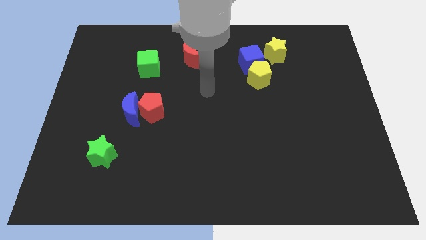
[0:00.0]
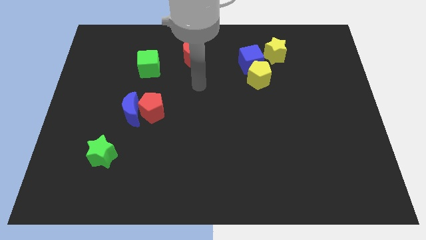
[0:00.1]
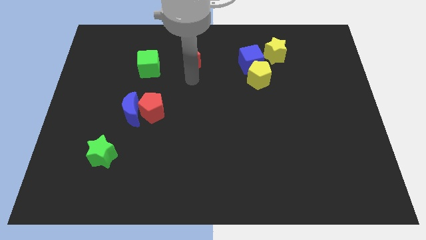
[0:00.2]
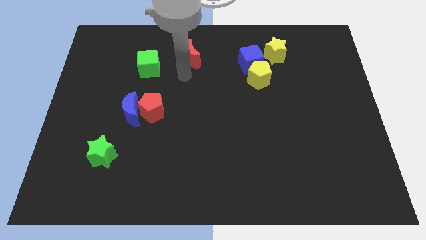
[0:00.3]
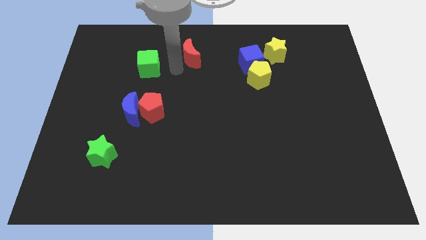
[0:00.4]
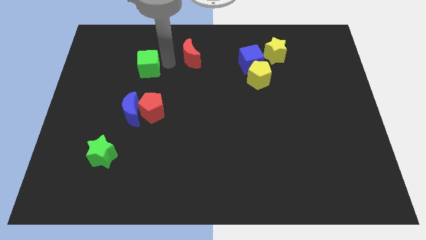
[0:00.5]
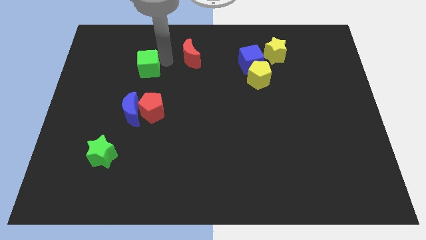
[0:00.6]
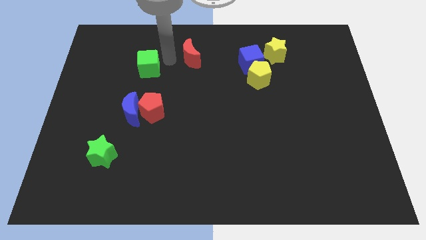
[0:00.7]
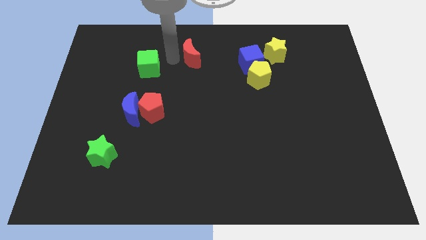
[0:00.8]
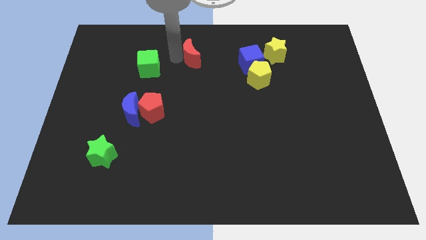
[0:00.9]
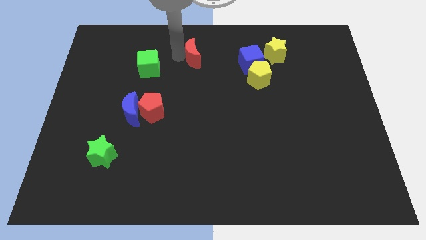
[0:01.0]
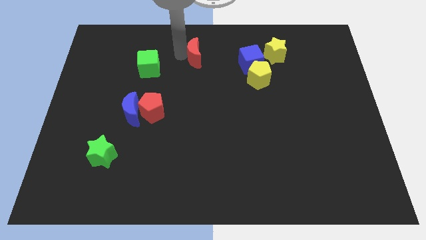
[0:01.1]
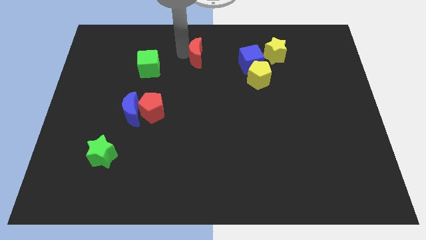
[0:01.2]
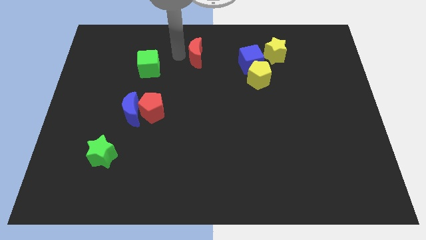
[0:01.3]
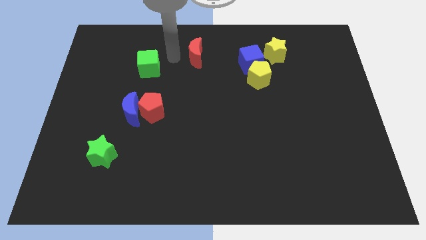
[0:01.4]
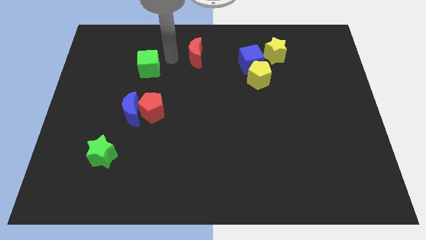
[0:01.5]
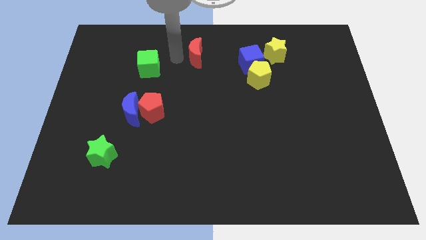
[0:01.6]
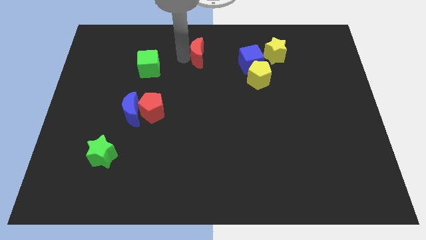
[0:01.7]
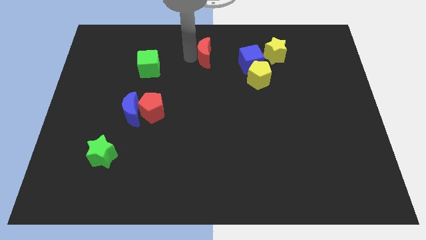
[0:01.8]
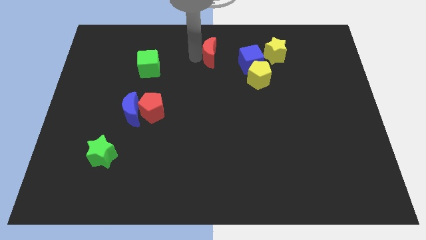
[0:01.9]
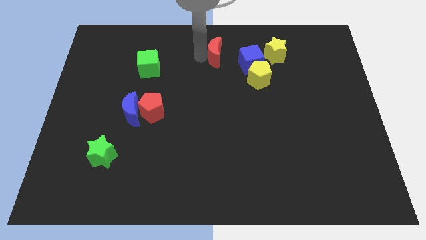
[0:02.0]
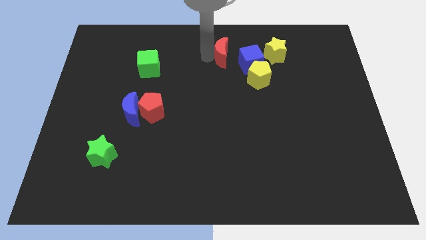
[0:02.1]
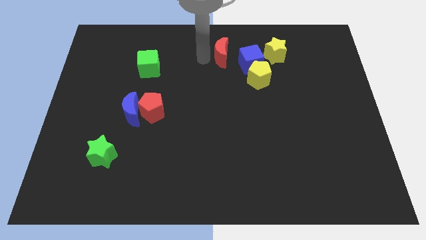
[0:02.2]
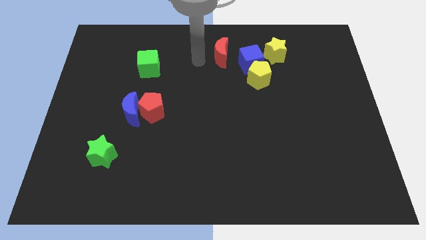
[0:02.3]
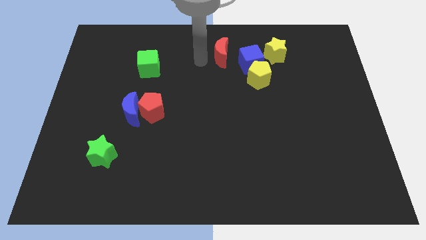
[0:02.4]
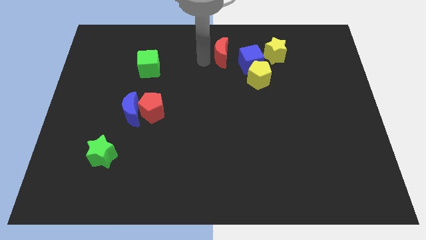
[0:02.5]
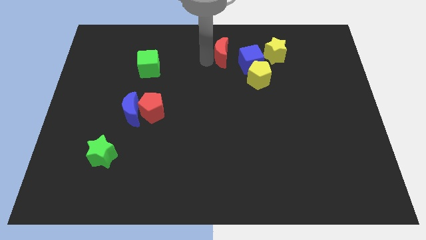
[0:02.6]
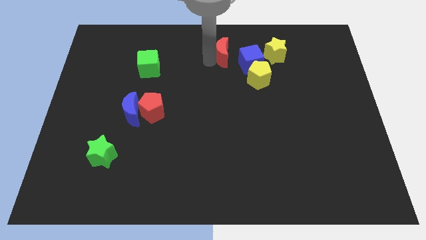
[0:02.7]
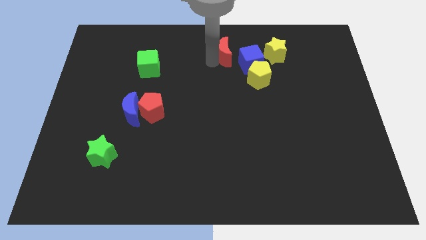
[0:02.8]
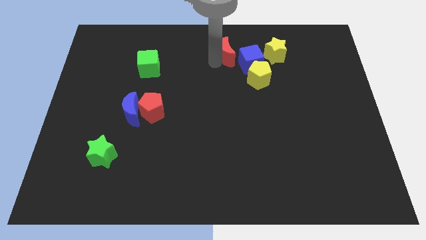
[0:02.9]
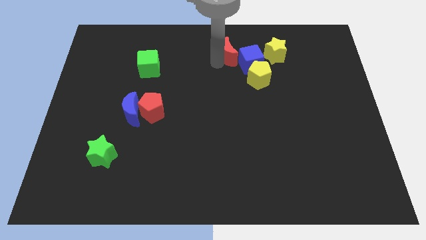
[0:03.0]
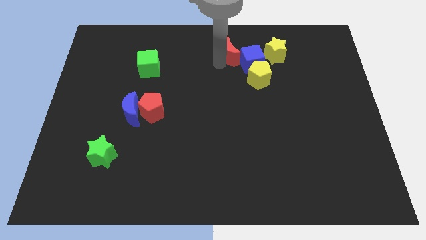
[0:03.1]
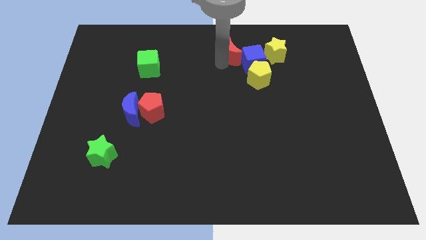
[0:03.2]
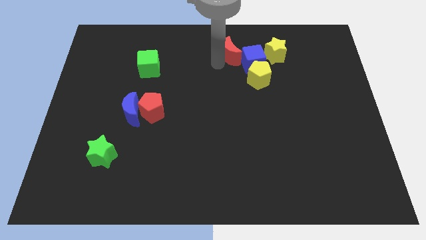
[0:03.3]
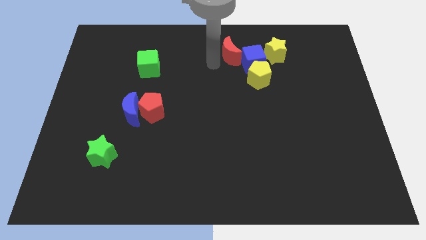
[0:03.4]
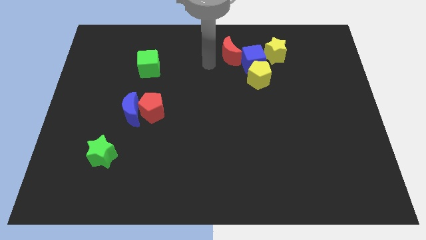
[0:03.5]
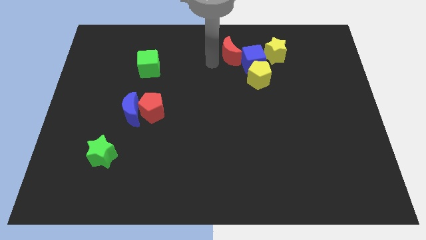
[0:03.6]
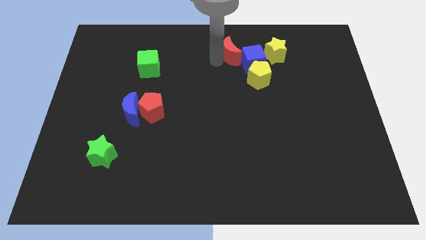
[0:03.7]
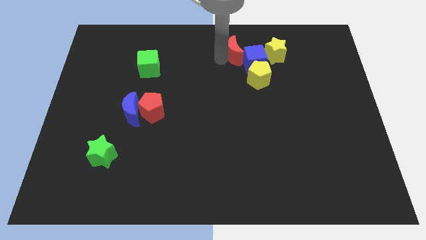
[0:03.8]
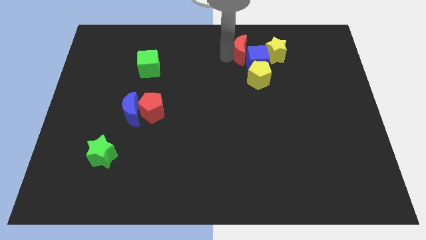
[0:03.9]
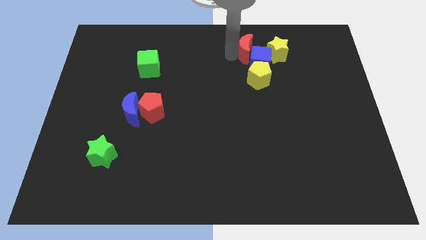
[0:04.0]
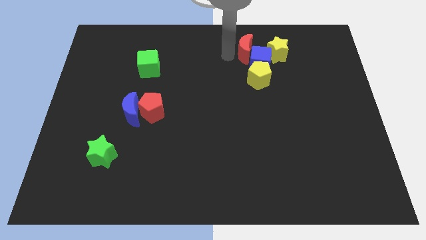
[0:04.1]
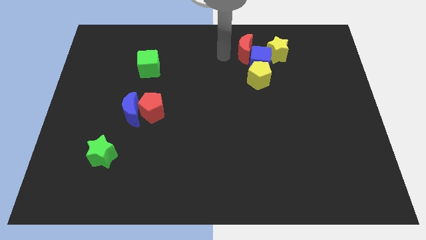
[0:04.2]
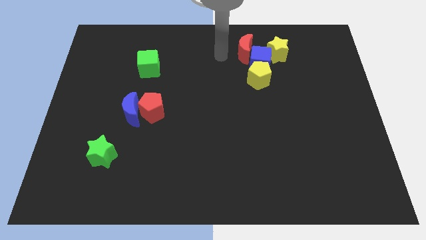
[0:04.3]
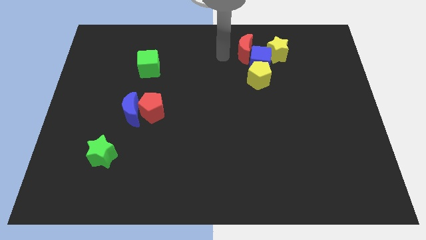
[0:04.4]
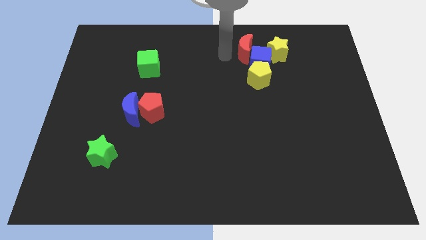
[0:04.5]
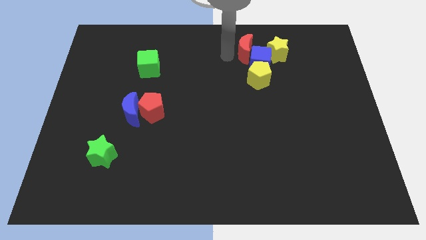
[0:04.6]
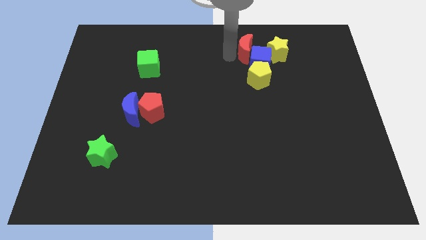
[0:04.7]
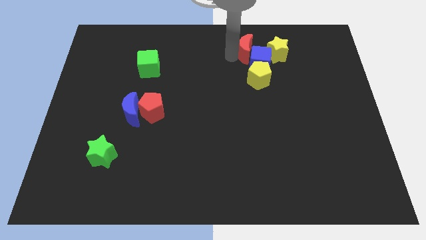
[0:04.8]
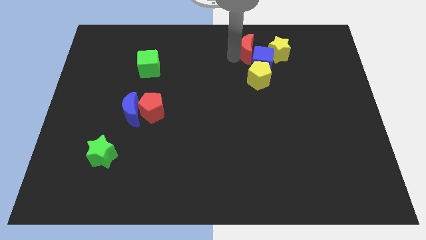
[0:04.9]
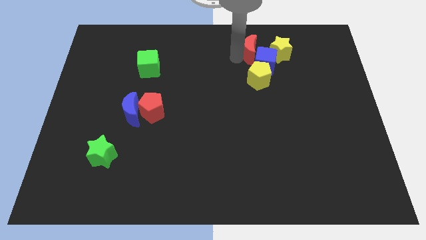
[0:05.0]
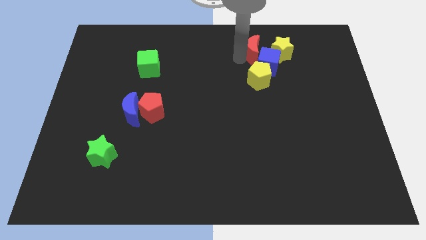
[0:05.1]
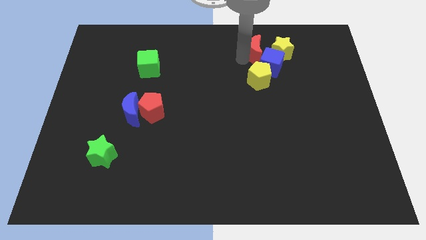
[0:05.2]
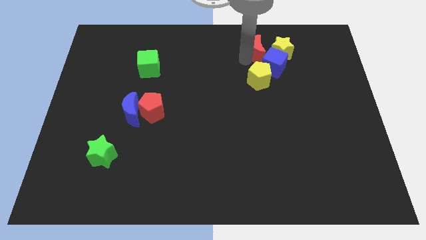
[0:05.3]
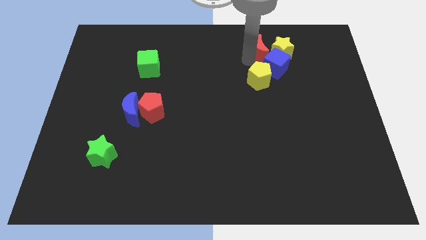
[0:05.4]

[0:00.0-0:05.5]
slide the red moon to the yellow star

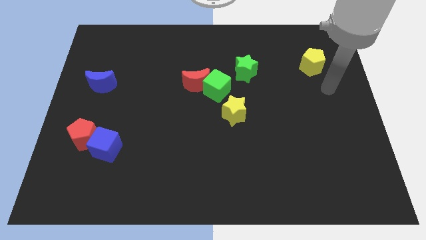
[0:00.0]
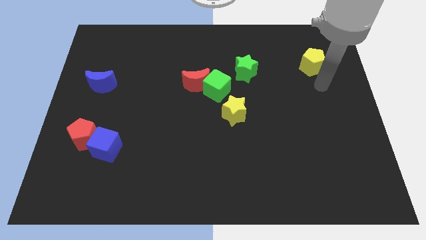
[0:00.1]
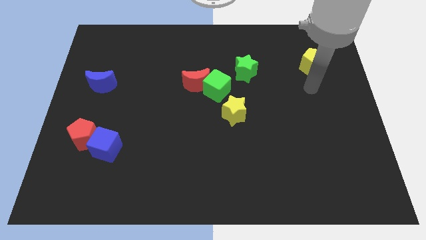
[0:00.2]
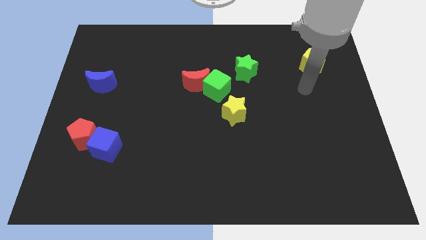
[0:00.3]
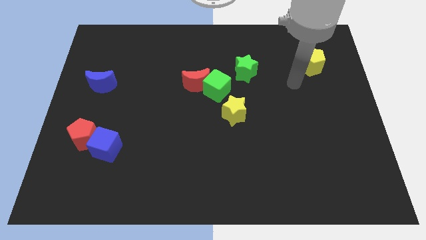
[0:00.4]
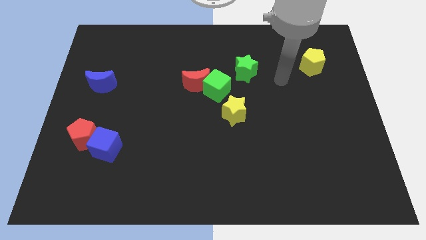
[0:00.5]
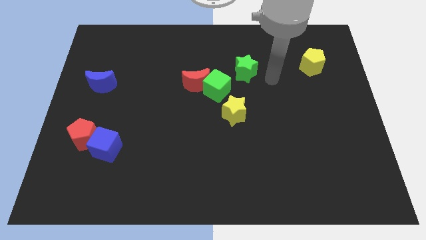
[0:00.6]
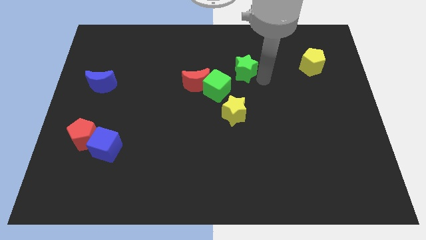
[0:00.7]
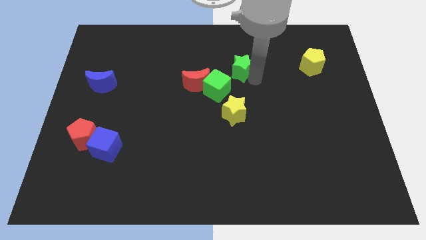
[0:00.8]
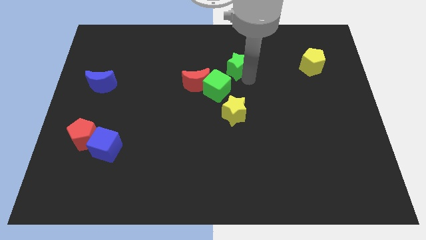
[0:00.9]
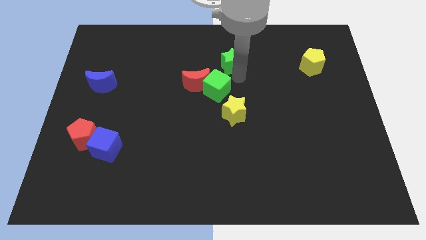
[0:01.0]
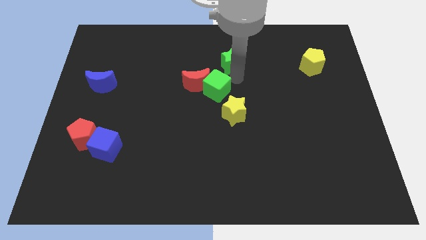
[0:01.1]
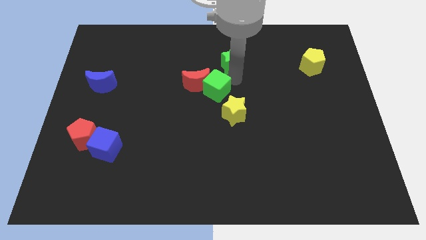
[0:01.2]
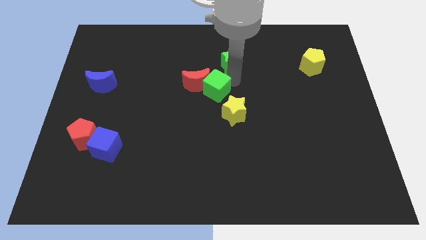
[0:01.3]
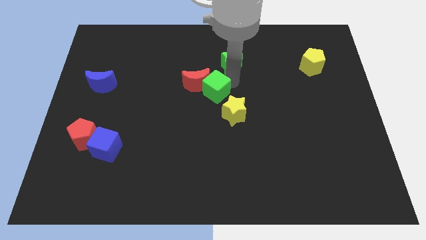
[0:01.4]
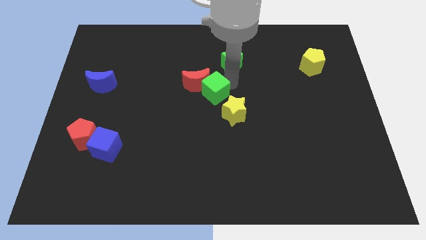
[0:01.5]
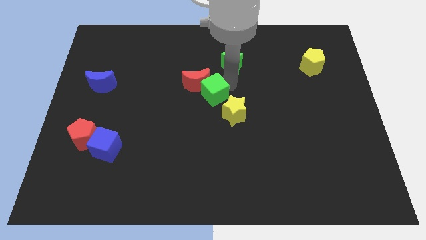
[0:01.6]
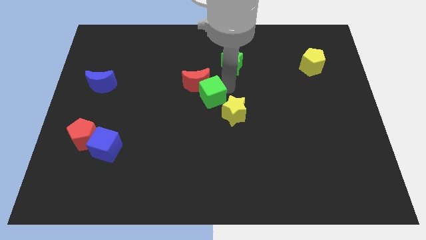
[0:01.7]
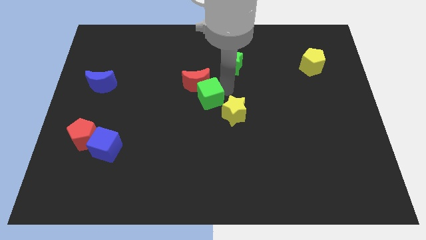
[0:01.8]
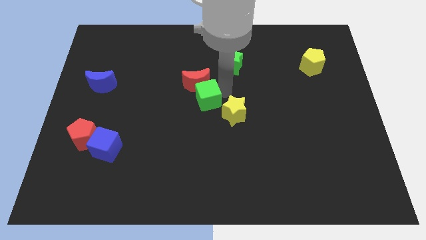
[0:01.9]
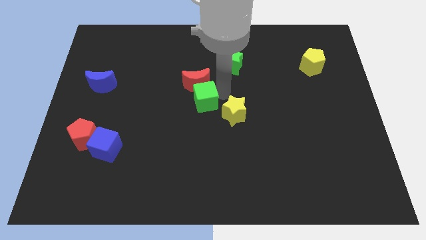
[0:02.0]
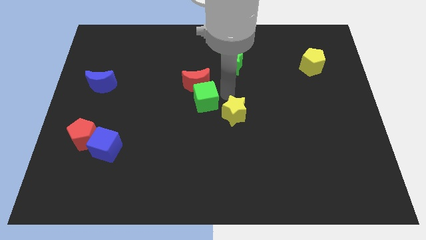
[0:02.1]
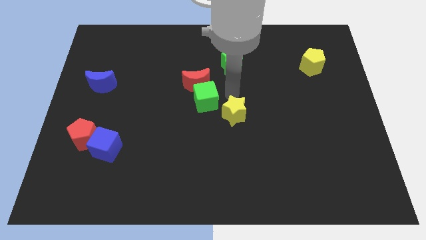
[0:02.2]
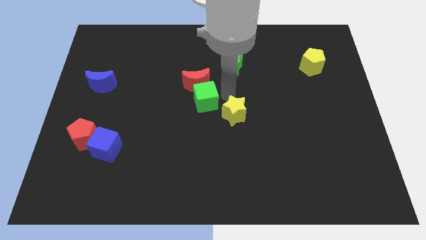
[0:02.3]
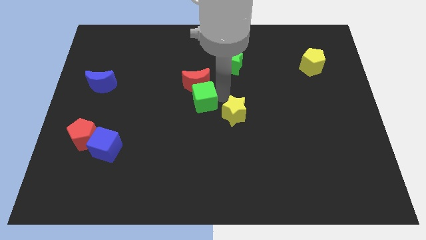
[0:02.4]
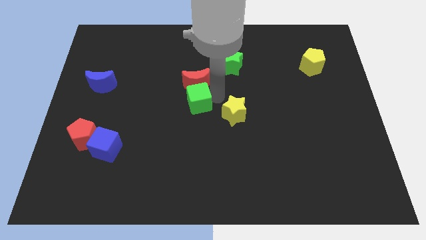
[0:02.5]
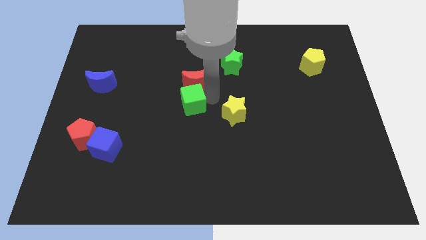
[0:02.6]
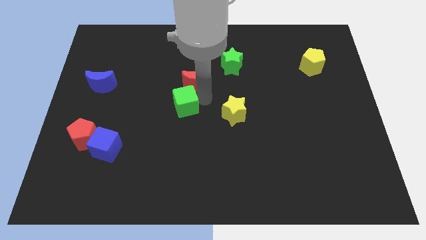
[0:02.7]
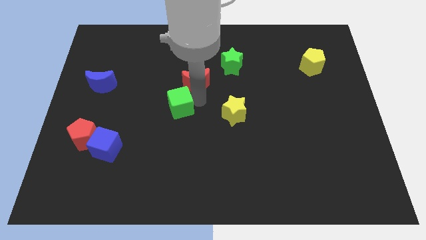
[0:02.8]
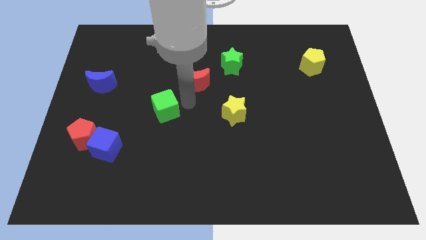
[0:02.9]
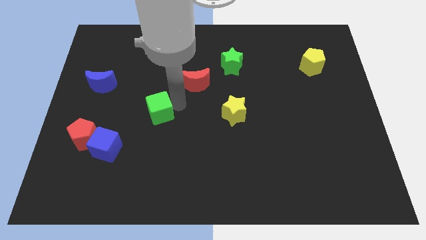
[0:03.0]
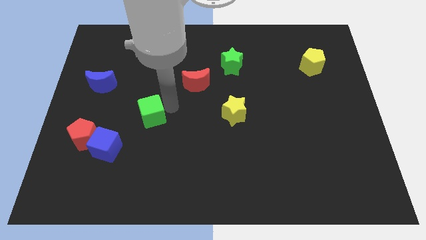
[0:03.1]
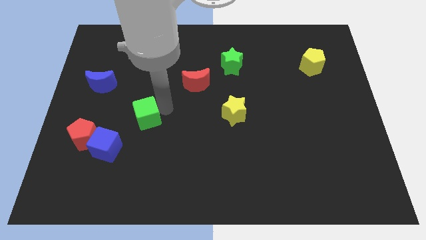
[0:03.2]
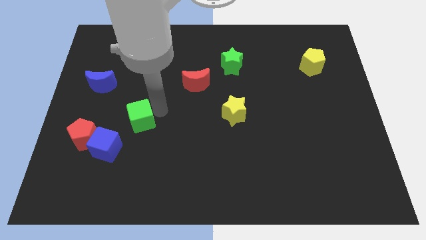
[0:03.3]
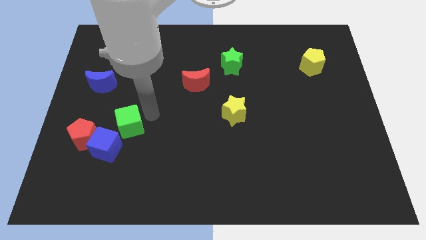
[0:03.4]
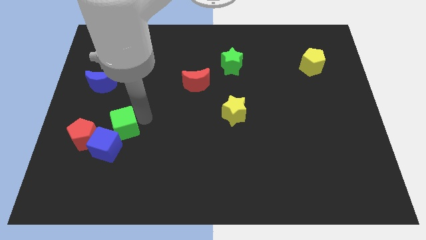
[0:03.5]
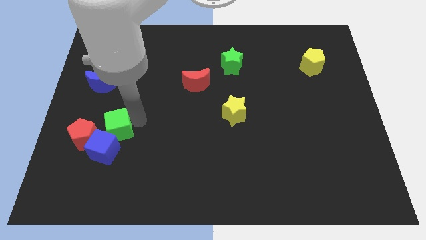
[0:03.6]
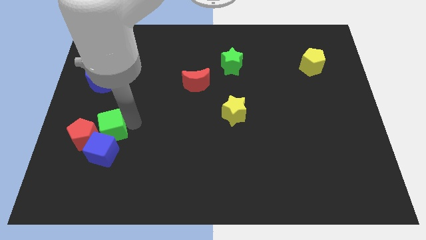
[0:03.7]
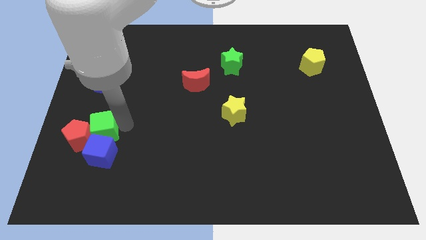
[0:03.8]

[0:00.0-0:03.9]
slide the green cube to the red pentagon
